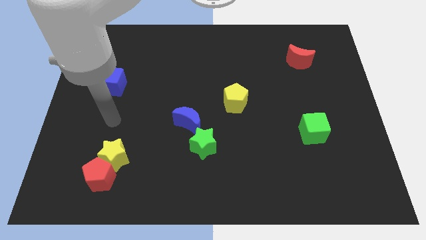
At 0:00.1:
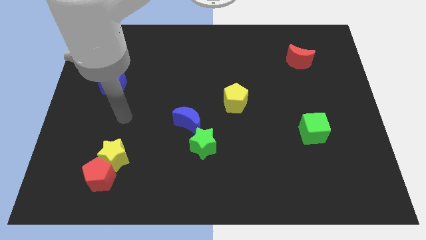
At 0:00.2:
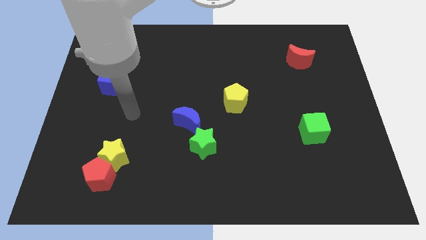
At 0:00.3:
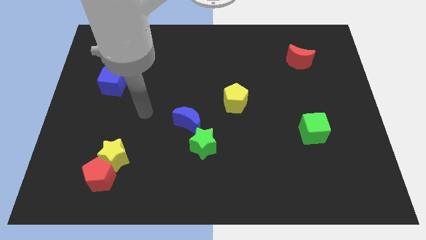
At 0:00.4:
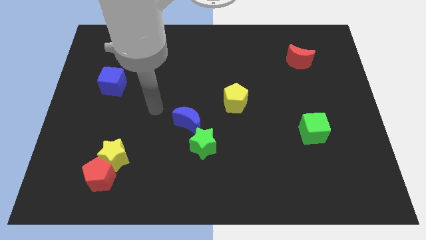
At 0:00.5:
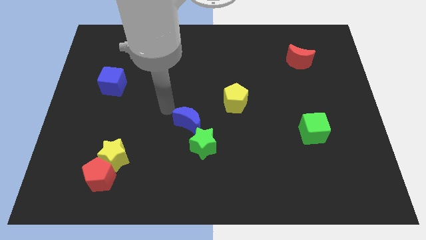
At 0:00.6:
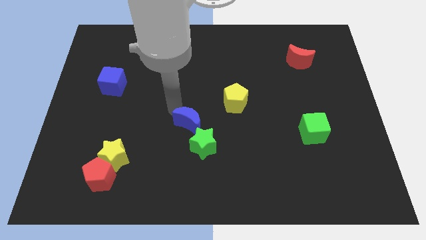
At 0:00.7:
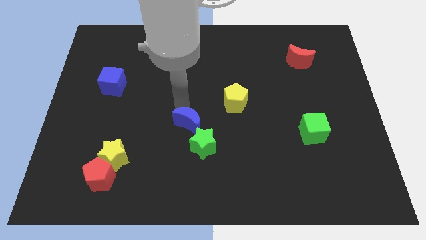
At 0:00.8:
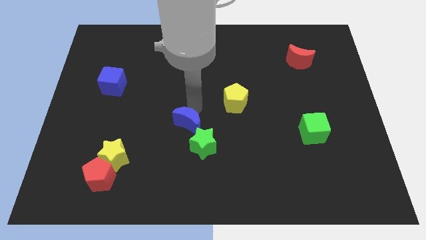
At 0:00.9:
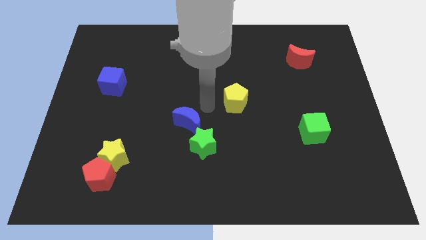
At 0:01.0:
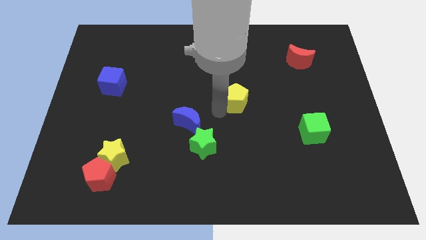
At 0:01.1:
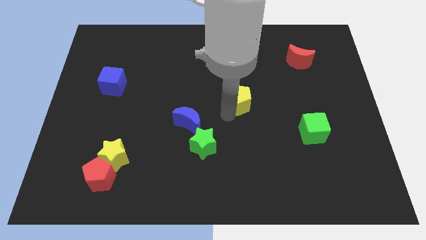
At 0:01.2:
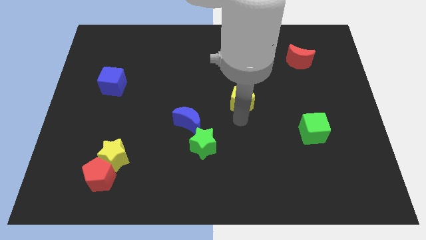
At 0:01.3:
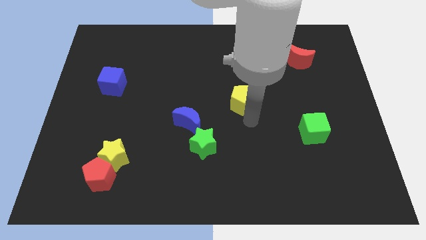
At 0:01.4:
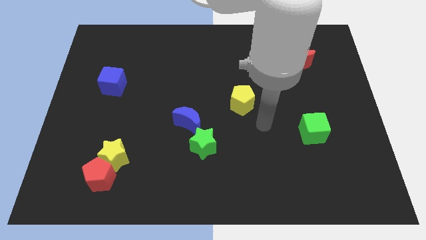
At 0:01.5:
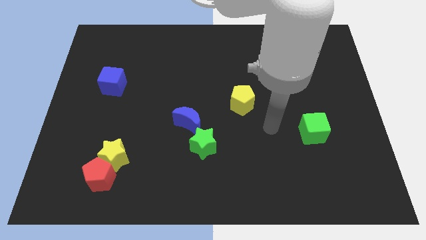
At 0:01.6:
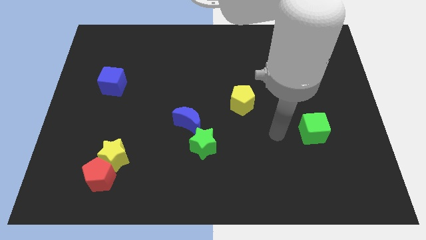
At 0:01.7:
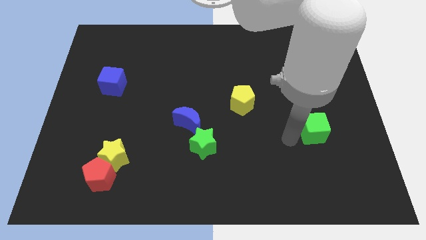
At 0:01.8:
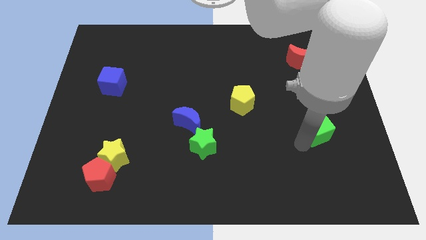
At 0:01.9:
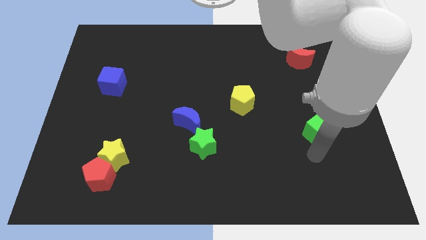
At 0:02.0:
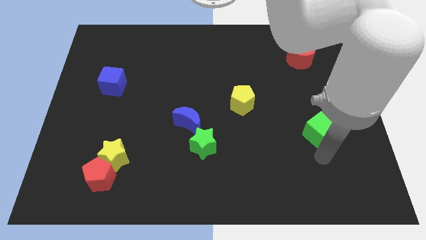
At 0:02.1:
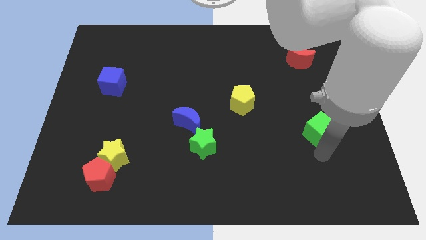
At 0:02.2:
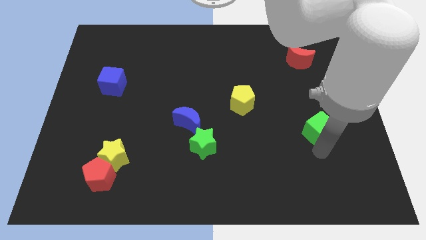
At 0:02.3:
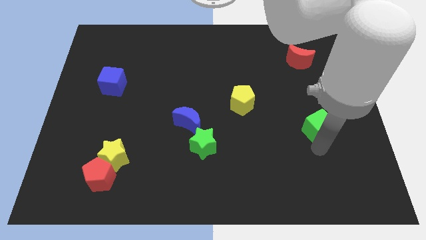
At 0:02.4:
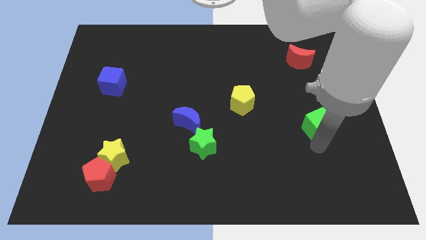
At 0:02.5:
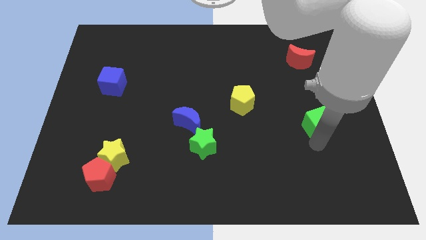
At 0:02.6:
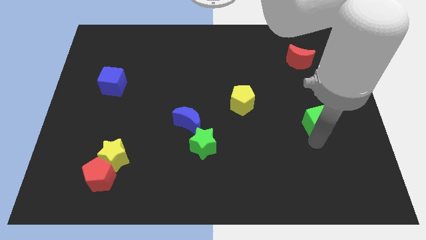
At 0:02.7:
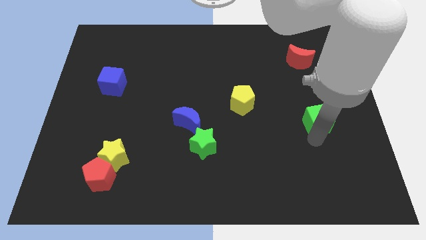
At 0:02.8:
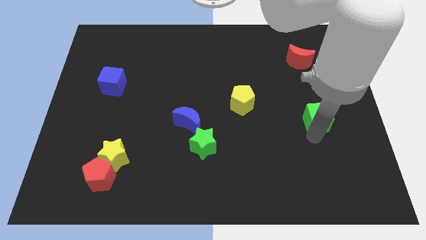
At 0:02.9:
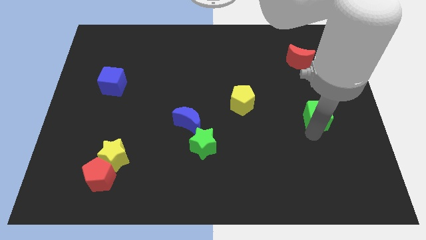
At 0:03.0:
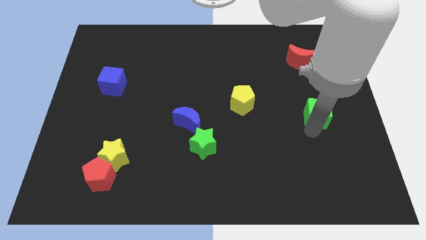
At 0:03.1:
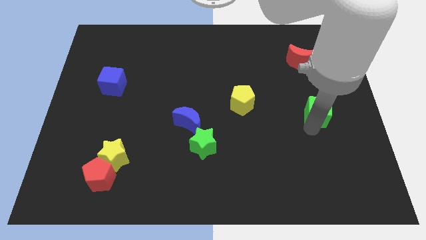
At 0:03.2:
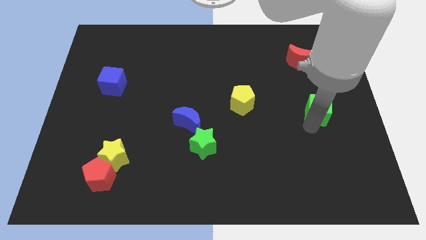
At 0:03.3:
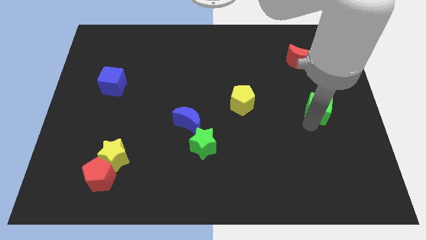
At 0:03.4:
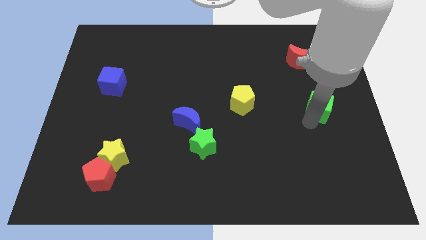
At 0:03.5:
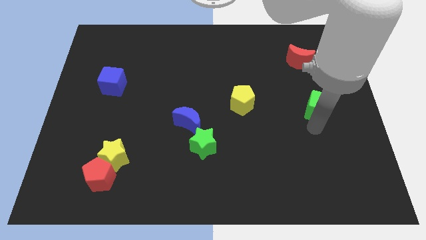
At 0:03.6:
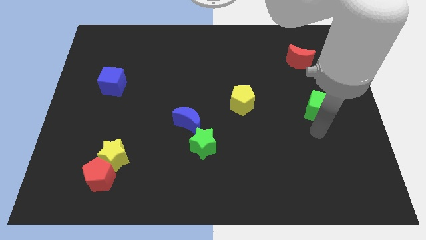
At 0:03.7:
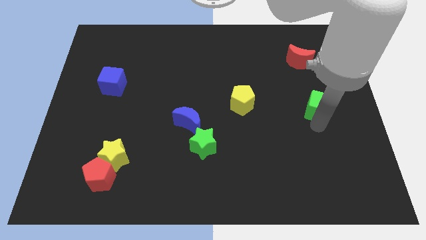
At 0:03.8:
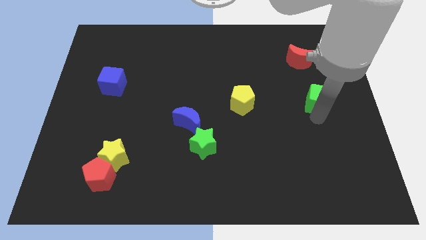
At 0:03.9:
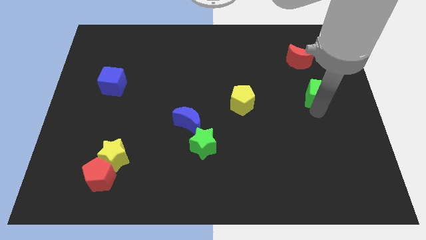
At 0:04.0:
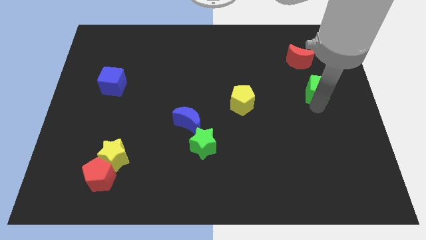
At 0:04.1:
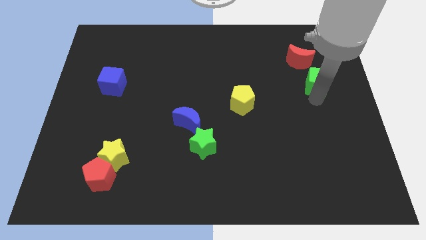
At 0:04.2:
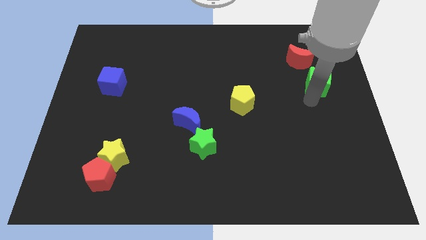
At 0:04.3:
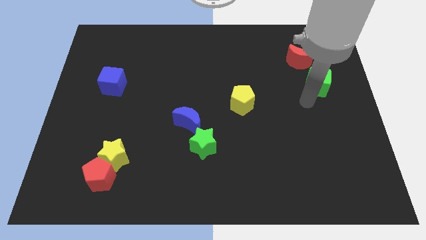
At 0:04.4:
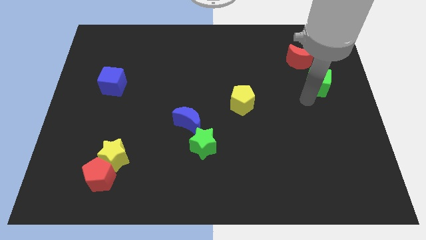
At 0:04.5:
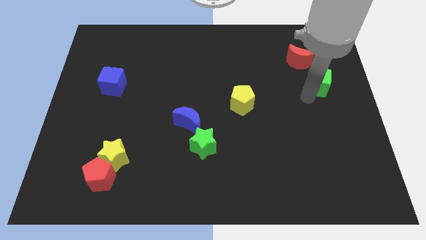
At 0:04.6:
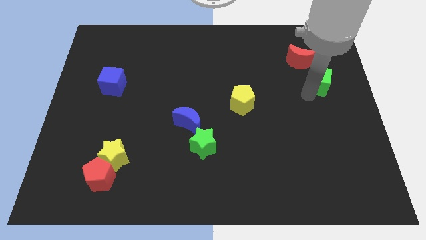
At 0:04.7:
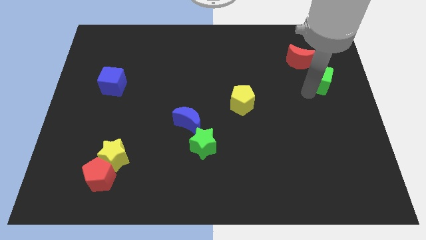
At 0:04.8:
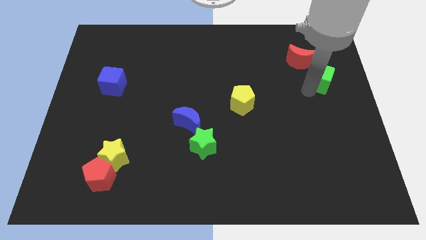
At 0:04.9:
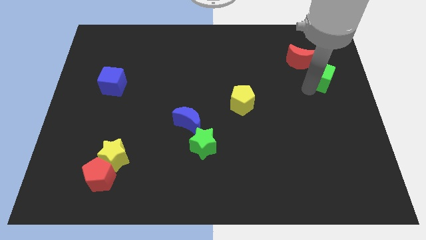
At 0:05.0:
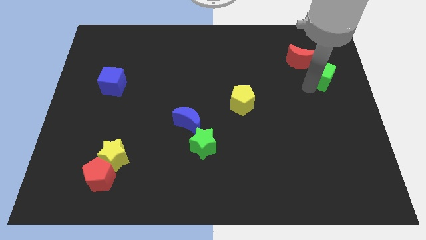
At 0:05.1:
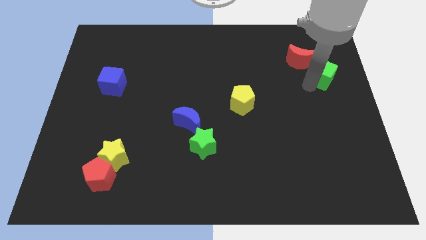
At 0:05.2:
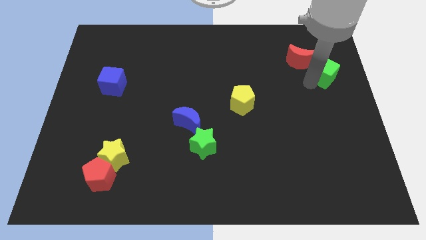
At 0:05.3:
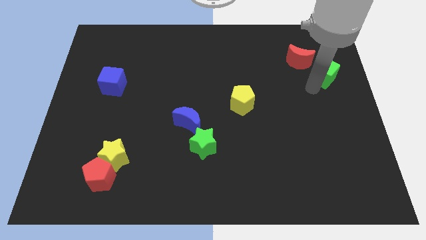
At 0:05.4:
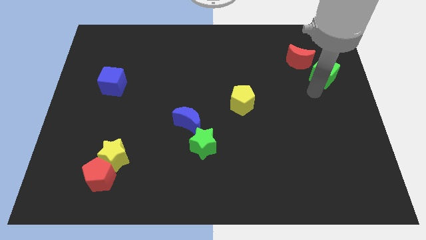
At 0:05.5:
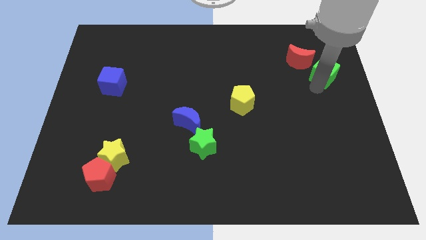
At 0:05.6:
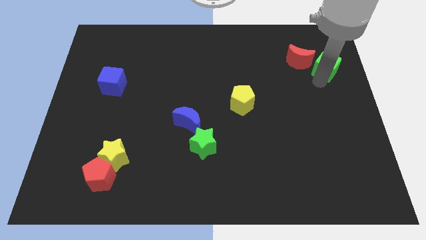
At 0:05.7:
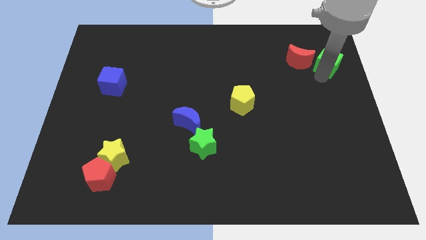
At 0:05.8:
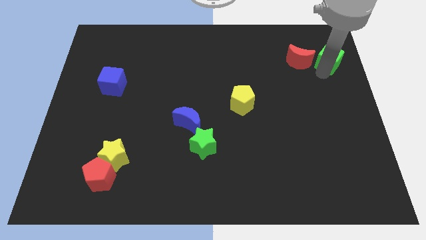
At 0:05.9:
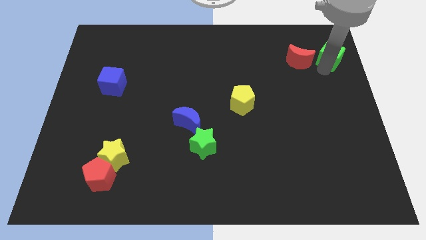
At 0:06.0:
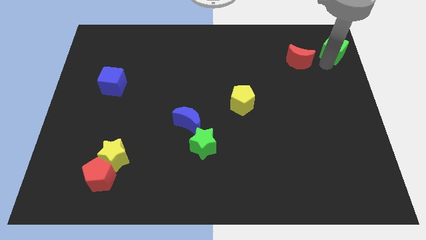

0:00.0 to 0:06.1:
push the green cube to the upper right corner
